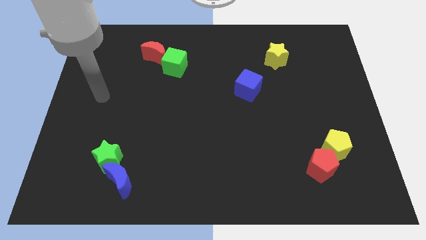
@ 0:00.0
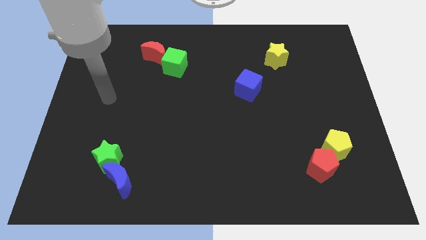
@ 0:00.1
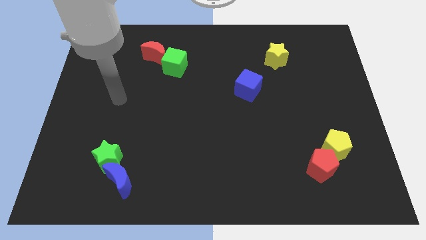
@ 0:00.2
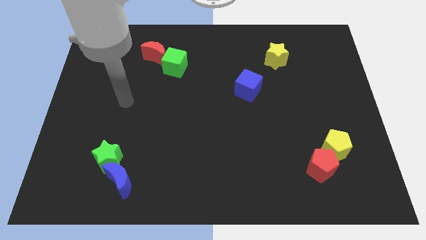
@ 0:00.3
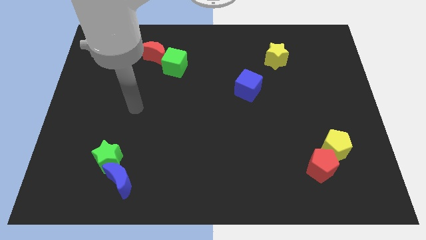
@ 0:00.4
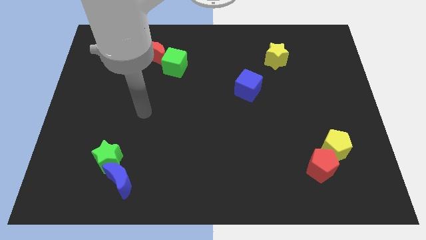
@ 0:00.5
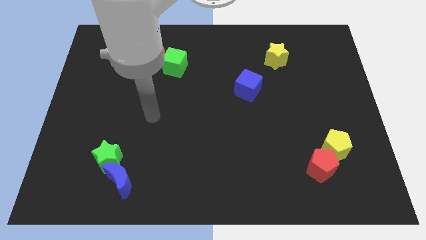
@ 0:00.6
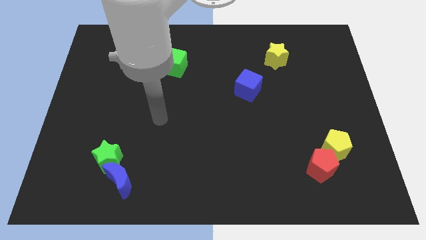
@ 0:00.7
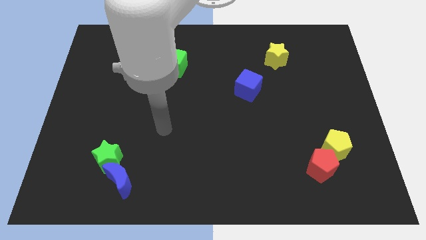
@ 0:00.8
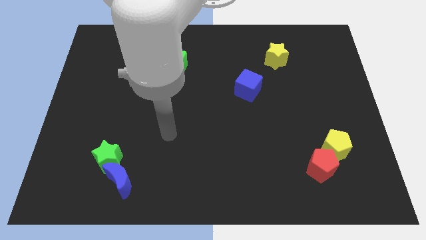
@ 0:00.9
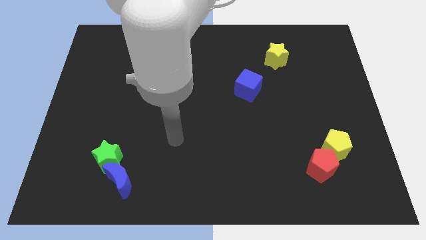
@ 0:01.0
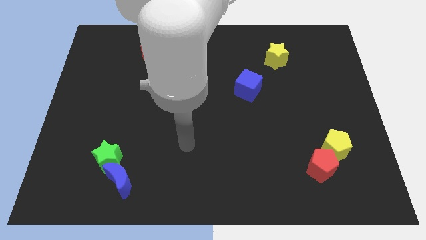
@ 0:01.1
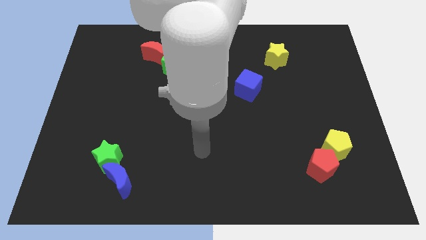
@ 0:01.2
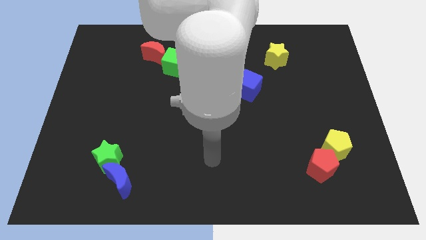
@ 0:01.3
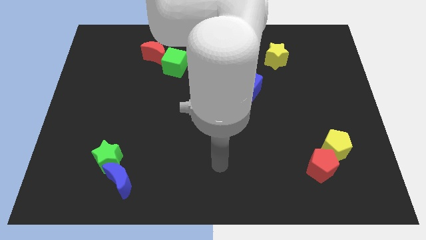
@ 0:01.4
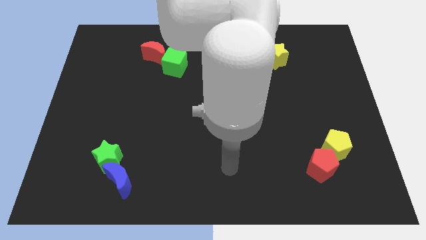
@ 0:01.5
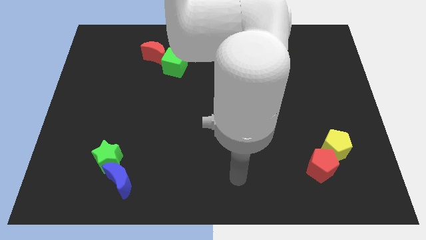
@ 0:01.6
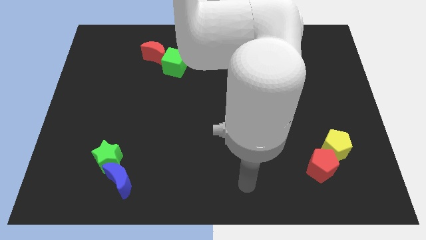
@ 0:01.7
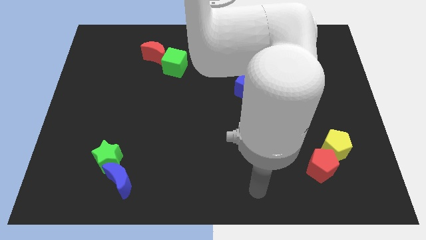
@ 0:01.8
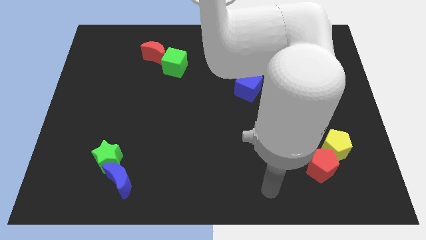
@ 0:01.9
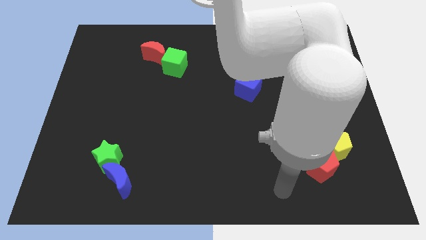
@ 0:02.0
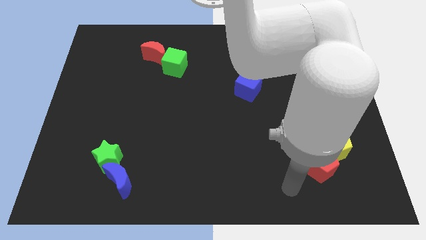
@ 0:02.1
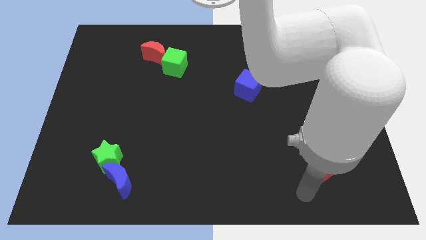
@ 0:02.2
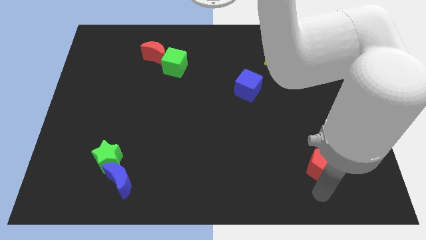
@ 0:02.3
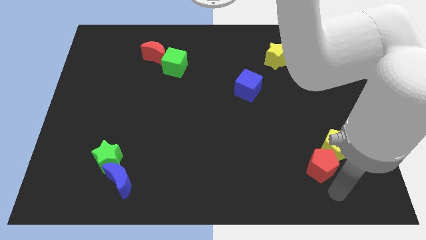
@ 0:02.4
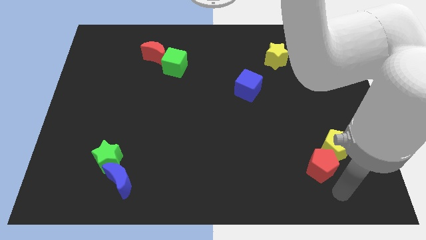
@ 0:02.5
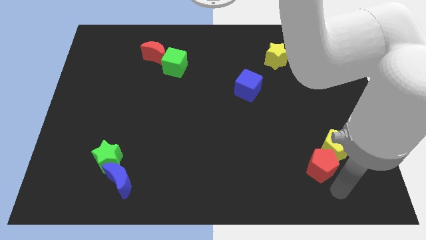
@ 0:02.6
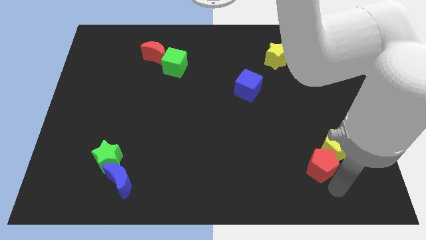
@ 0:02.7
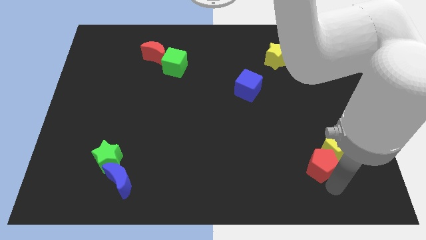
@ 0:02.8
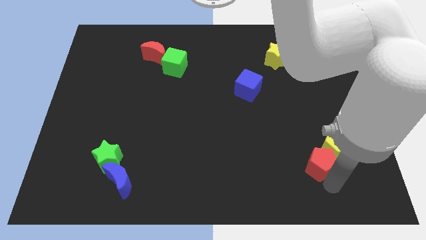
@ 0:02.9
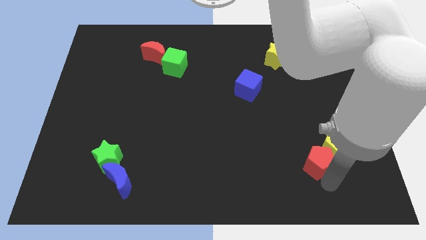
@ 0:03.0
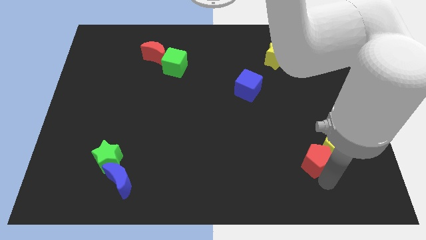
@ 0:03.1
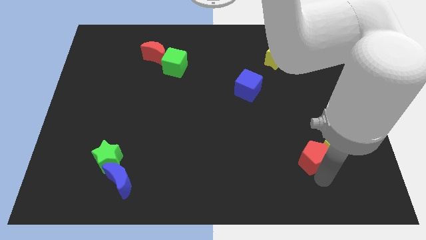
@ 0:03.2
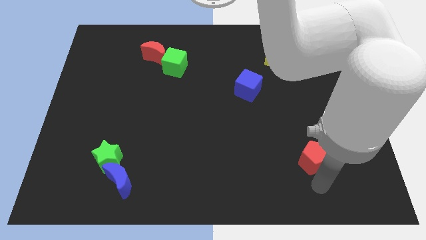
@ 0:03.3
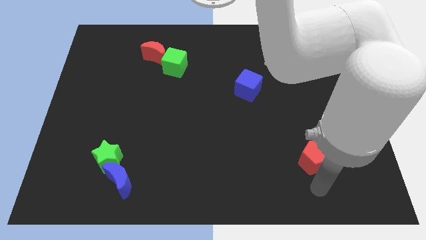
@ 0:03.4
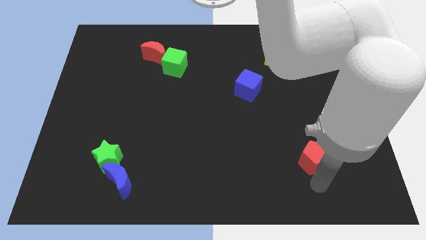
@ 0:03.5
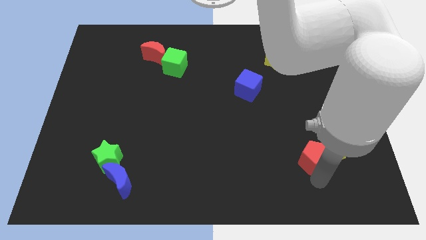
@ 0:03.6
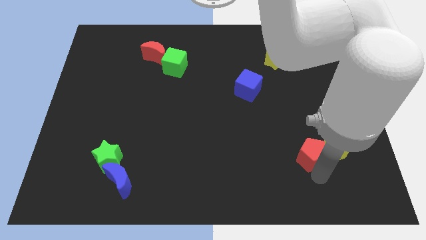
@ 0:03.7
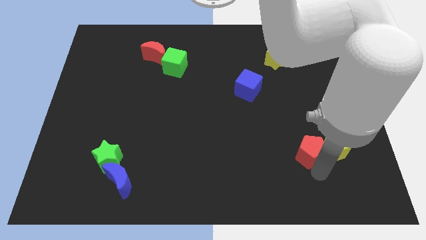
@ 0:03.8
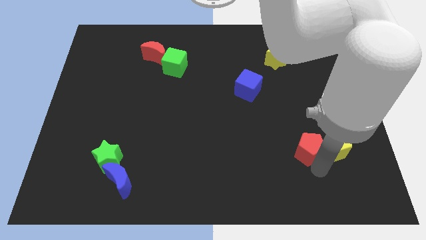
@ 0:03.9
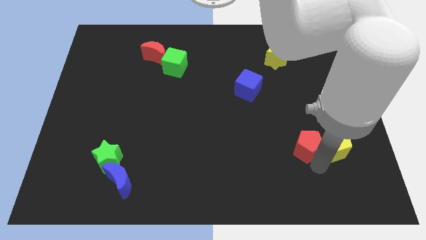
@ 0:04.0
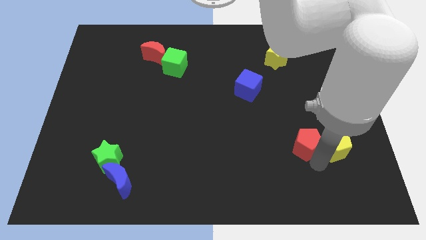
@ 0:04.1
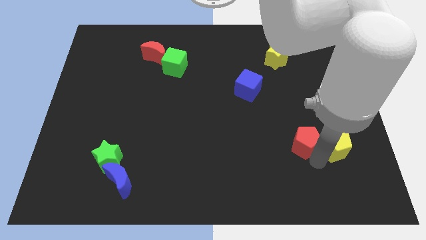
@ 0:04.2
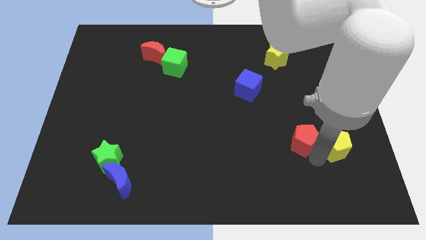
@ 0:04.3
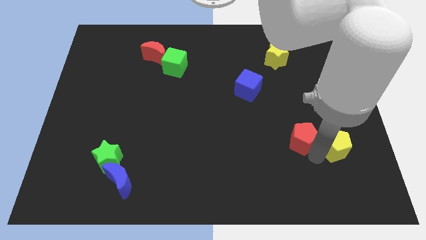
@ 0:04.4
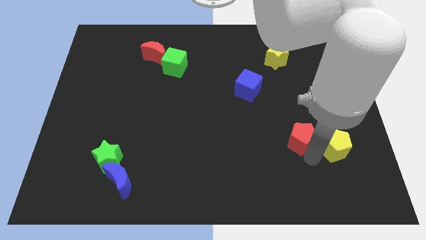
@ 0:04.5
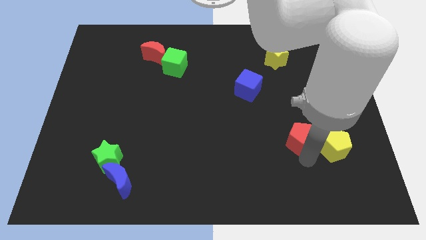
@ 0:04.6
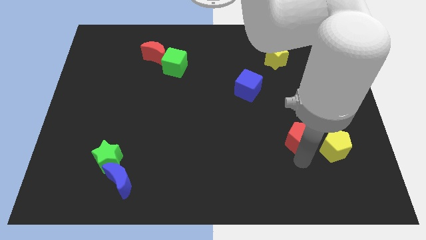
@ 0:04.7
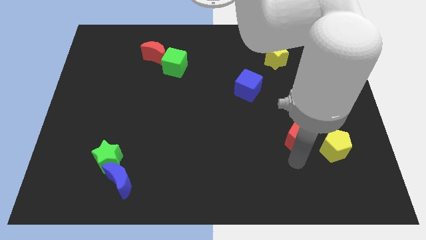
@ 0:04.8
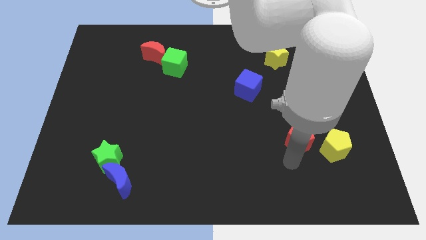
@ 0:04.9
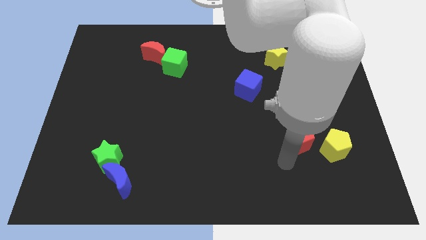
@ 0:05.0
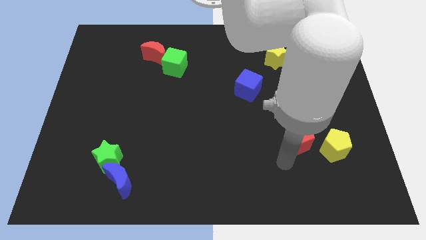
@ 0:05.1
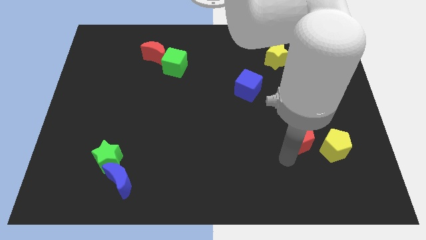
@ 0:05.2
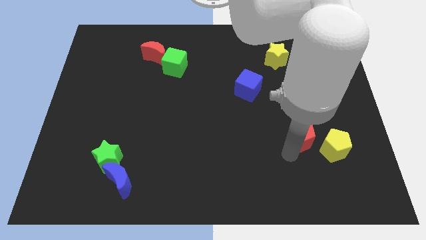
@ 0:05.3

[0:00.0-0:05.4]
slightly slide the red pentagon upwards

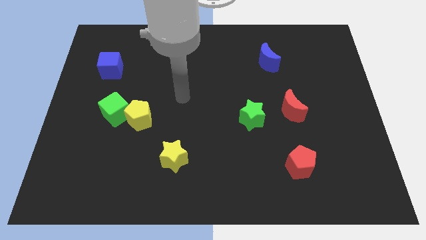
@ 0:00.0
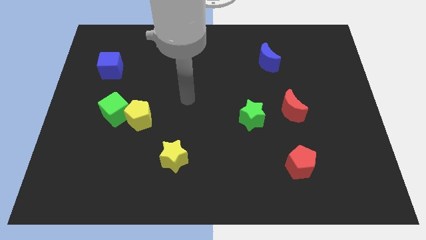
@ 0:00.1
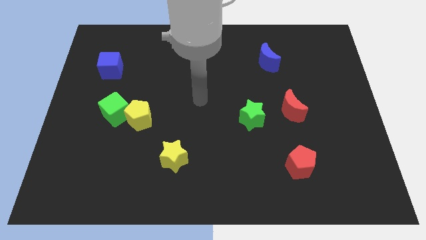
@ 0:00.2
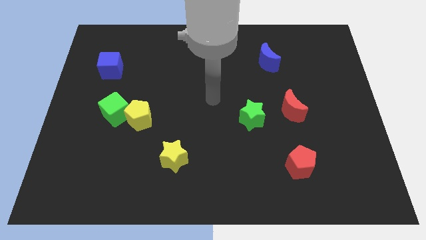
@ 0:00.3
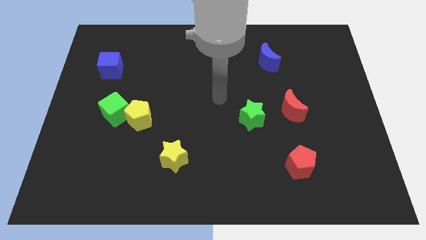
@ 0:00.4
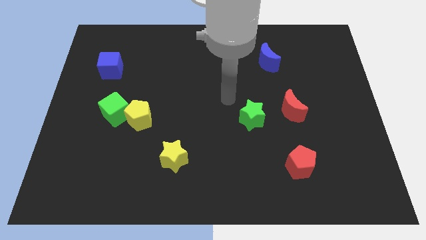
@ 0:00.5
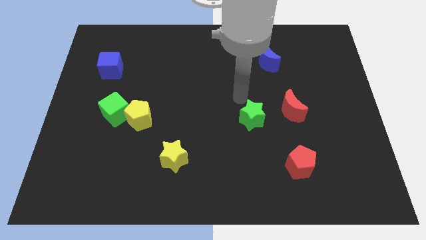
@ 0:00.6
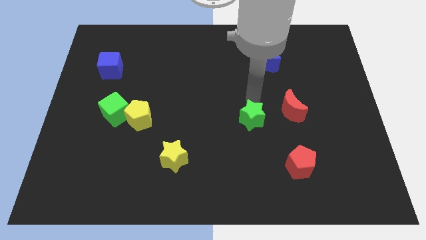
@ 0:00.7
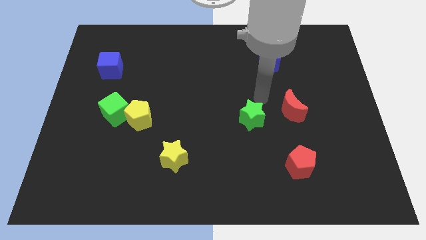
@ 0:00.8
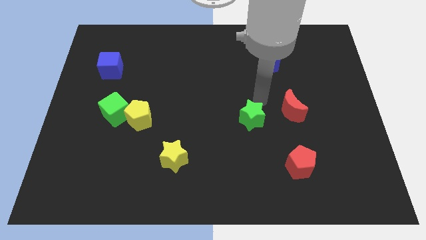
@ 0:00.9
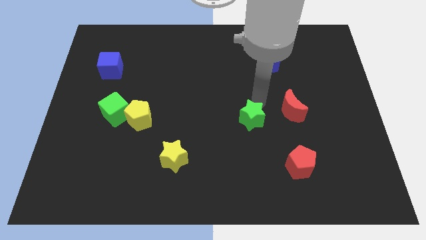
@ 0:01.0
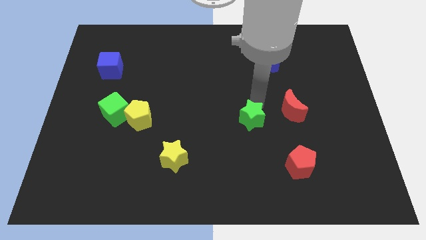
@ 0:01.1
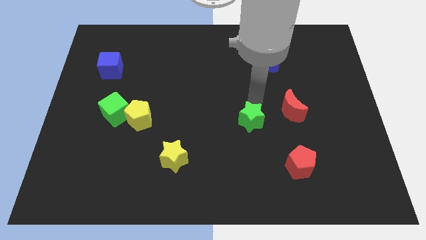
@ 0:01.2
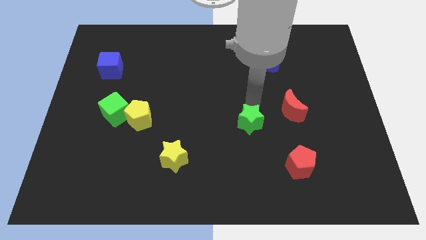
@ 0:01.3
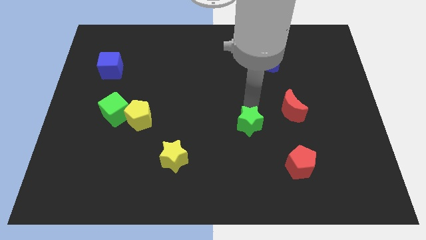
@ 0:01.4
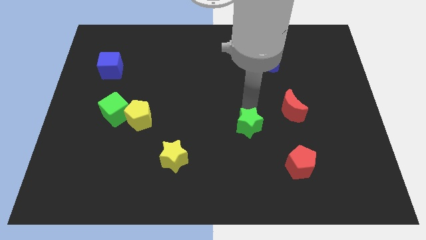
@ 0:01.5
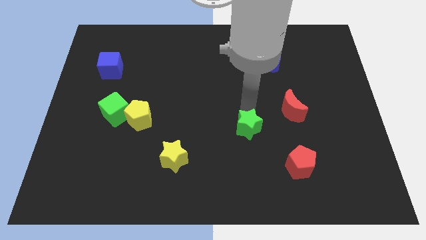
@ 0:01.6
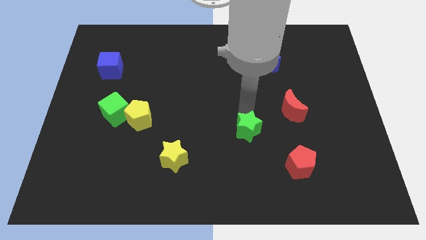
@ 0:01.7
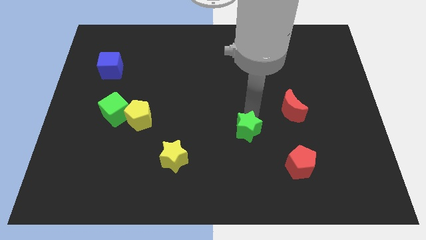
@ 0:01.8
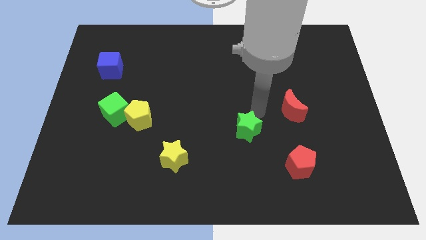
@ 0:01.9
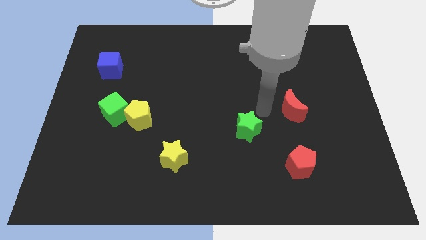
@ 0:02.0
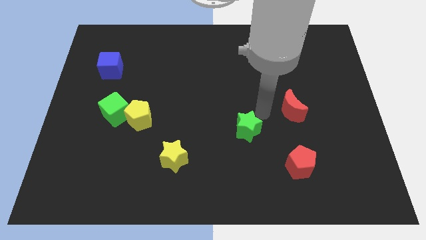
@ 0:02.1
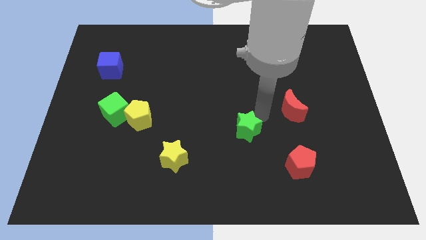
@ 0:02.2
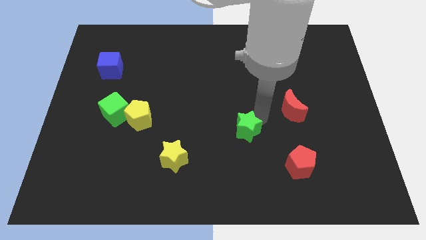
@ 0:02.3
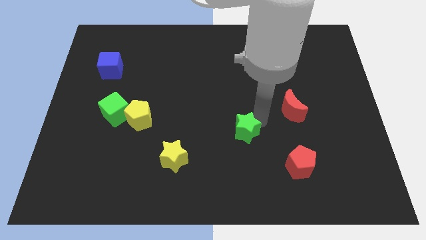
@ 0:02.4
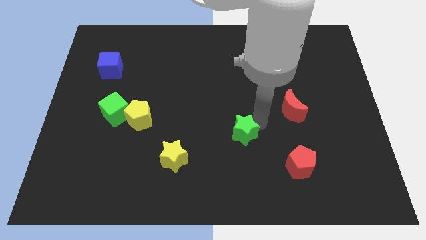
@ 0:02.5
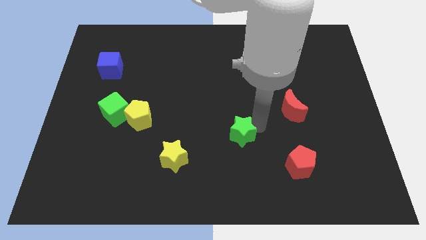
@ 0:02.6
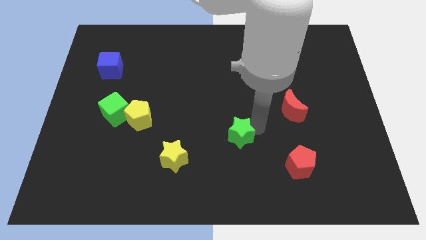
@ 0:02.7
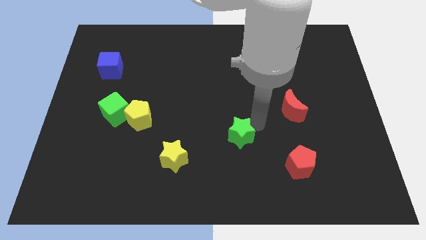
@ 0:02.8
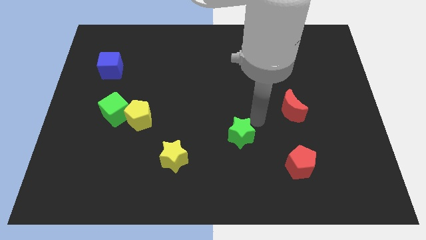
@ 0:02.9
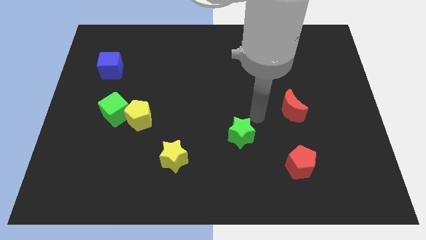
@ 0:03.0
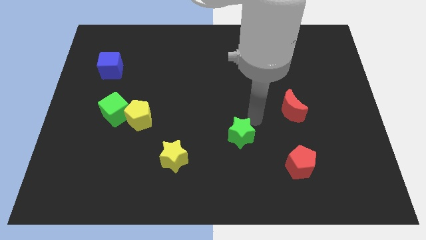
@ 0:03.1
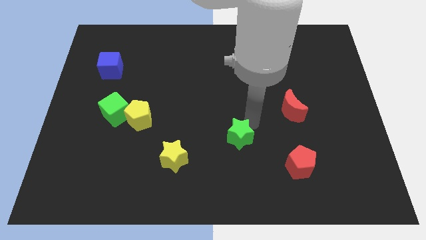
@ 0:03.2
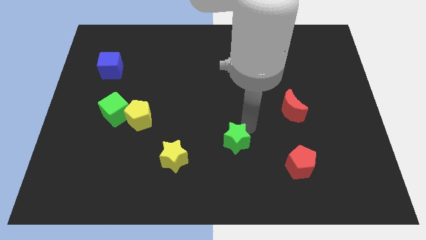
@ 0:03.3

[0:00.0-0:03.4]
slightly push the green star downwards and left
